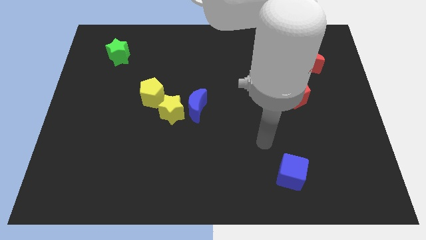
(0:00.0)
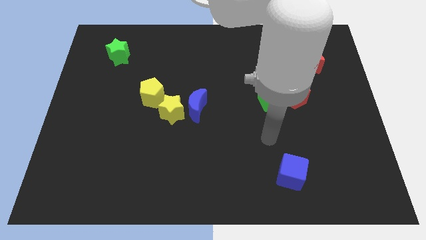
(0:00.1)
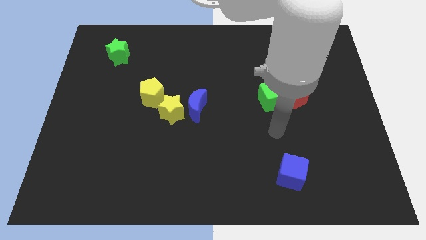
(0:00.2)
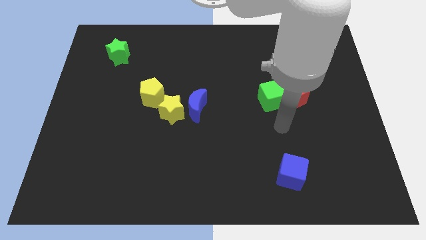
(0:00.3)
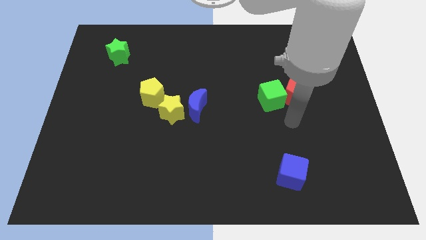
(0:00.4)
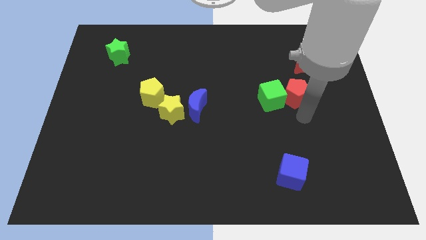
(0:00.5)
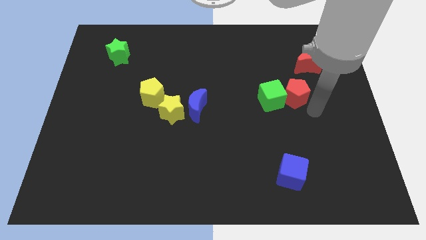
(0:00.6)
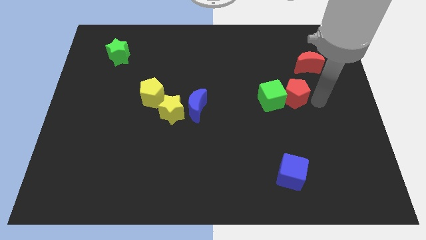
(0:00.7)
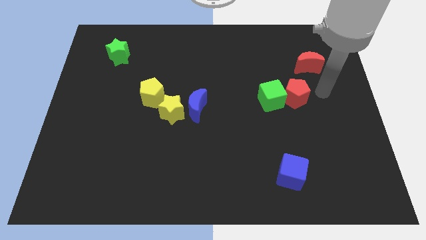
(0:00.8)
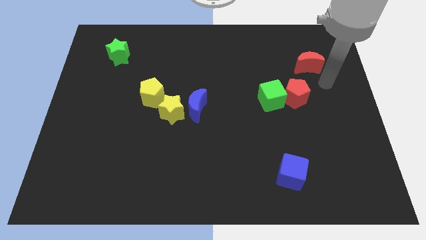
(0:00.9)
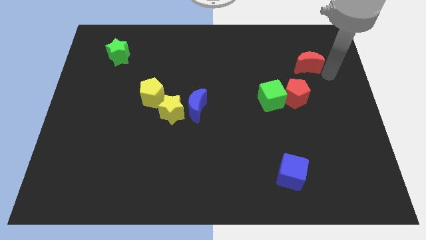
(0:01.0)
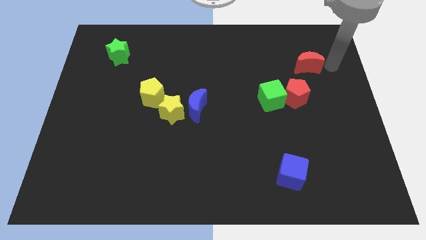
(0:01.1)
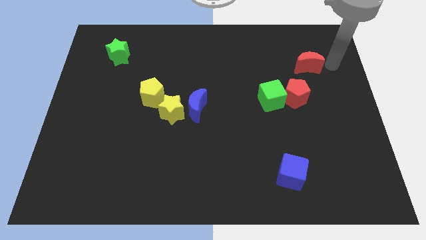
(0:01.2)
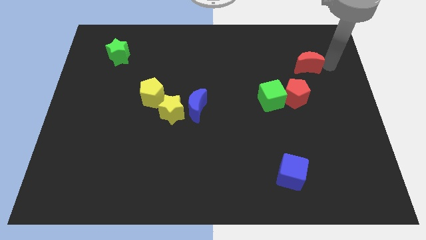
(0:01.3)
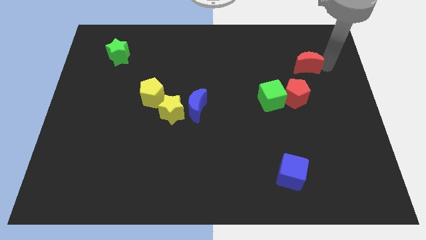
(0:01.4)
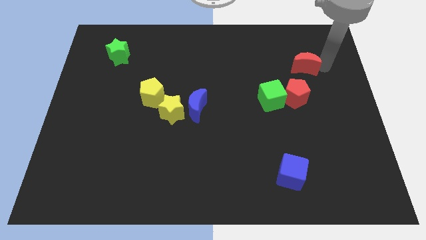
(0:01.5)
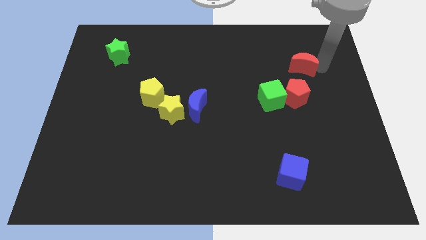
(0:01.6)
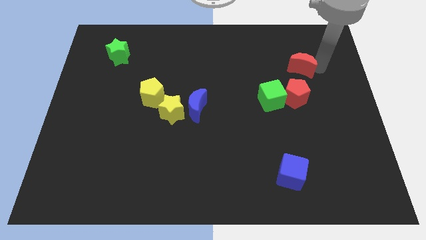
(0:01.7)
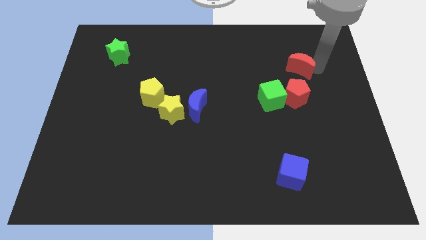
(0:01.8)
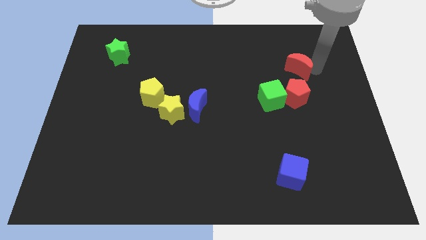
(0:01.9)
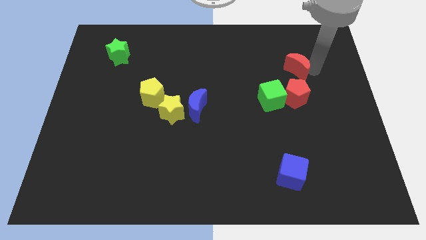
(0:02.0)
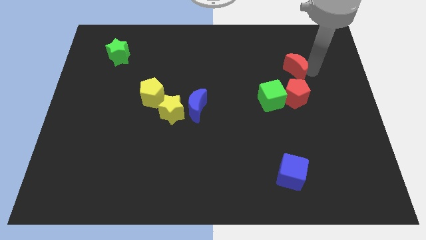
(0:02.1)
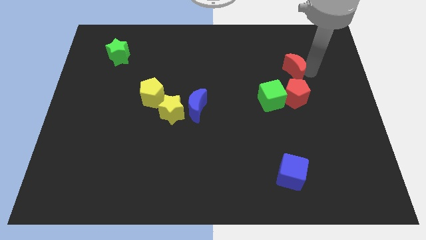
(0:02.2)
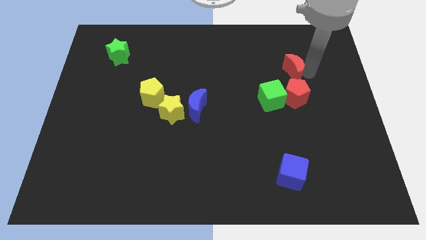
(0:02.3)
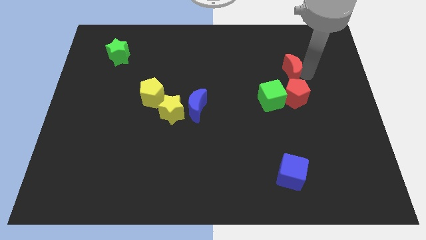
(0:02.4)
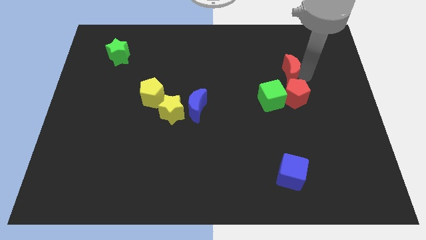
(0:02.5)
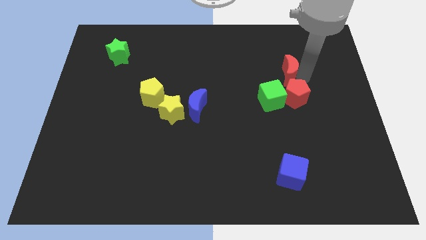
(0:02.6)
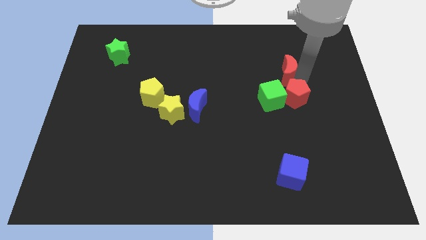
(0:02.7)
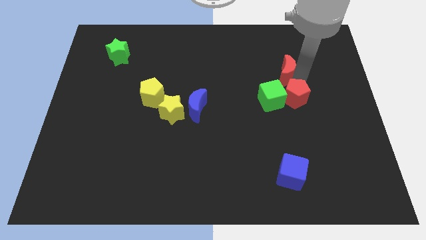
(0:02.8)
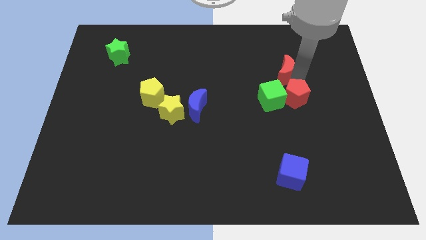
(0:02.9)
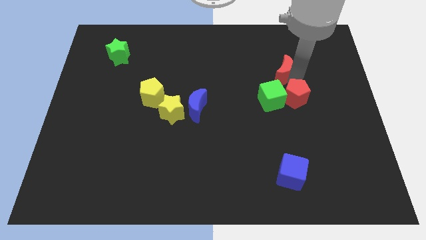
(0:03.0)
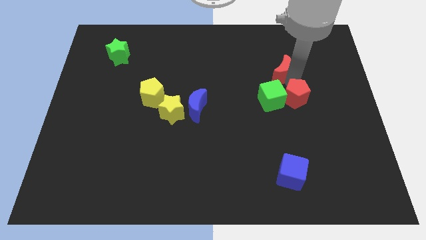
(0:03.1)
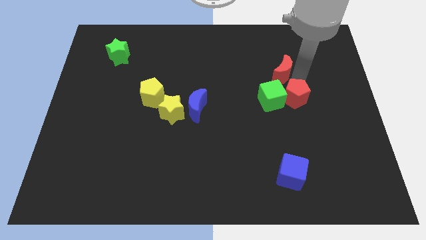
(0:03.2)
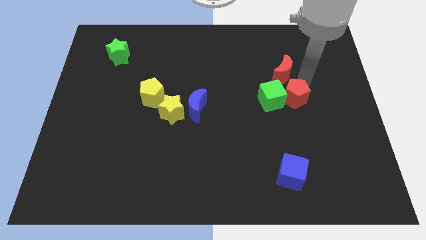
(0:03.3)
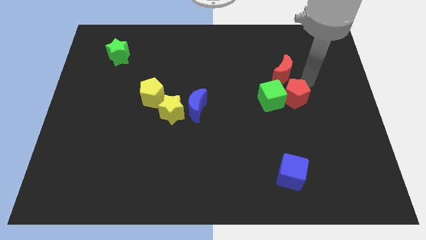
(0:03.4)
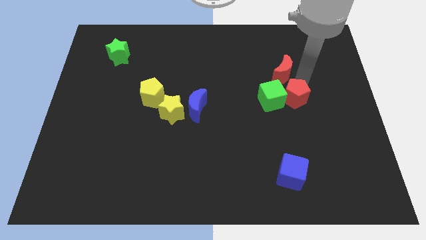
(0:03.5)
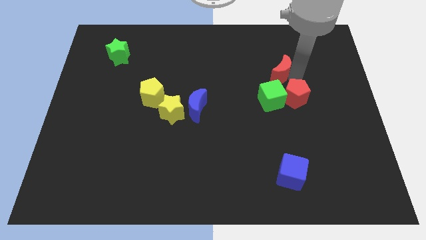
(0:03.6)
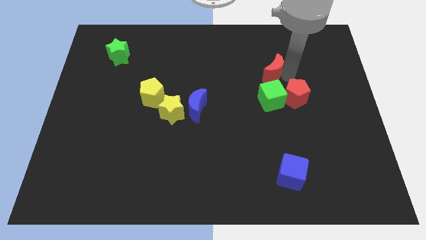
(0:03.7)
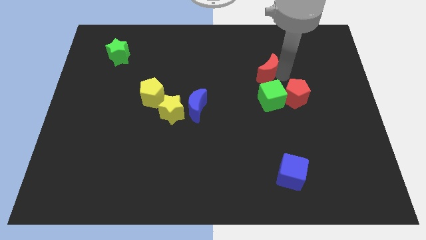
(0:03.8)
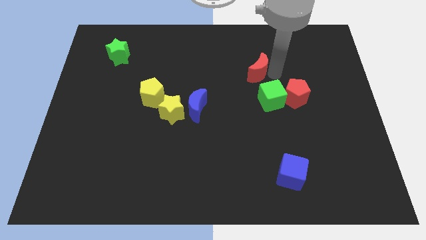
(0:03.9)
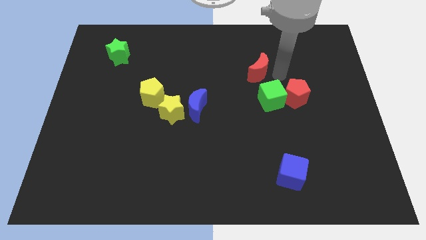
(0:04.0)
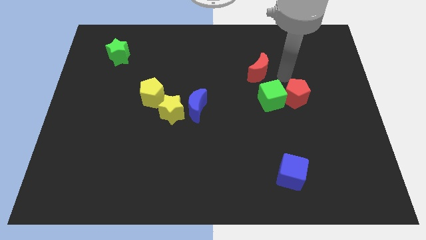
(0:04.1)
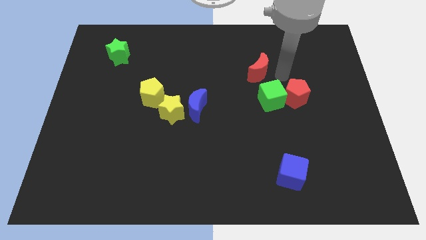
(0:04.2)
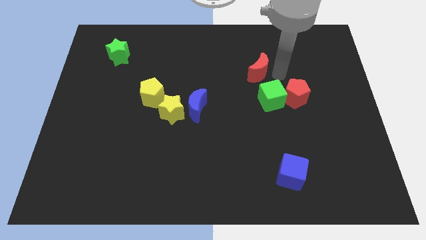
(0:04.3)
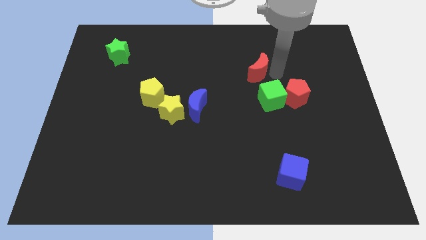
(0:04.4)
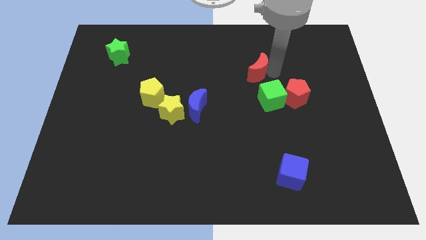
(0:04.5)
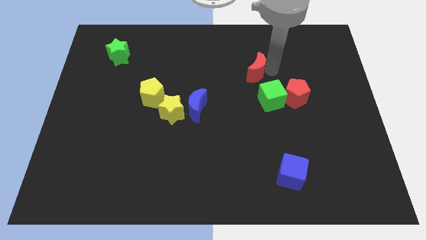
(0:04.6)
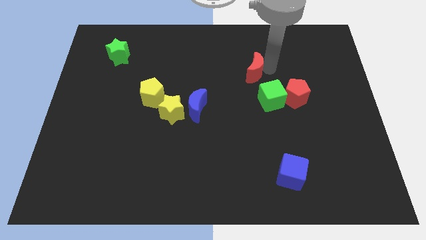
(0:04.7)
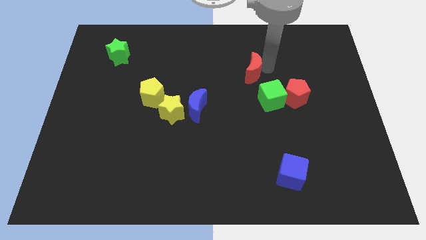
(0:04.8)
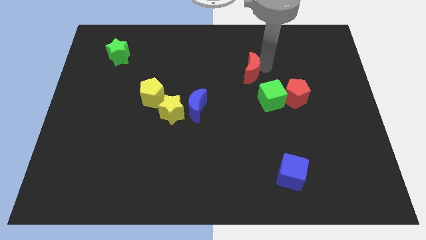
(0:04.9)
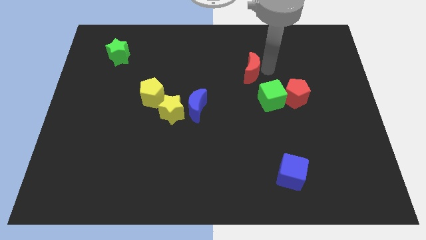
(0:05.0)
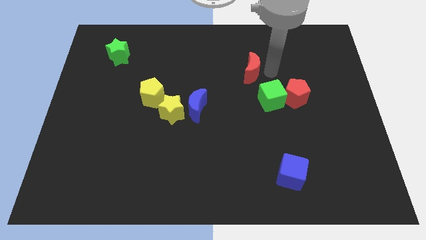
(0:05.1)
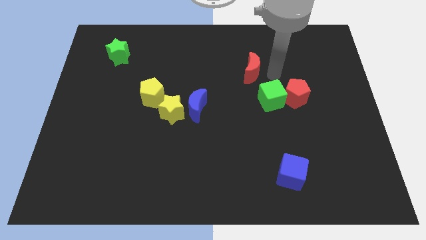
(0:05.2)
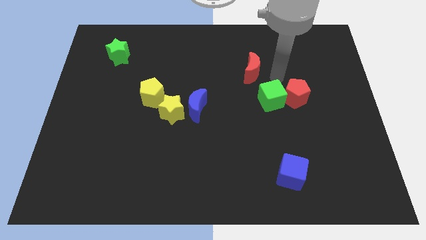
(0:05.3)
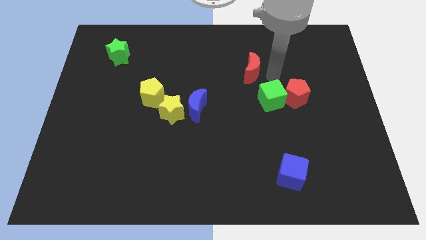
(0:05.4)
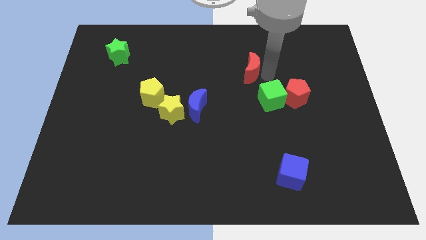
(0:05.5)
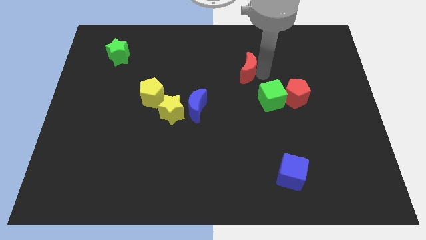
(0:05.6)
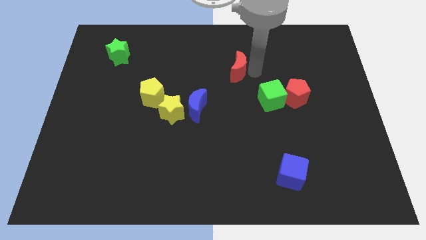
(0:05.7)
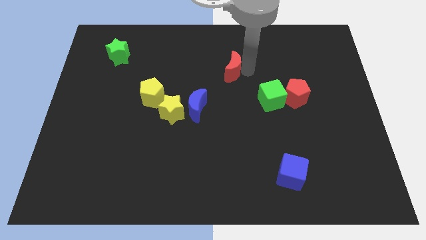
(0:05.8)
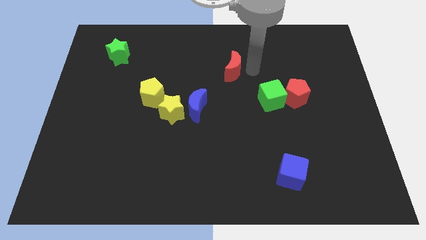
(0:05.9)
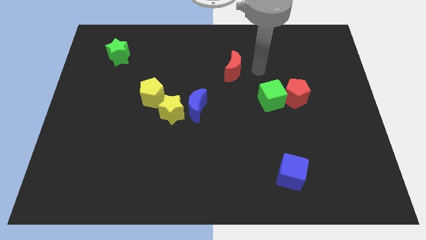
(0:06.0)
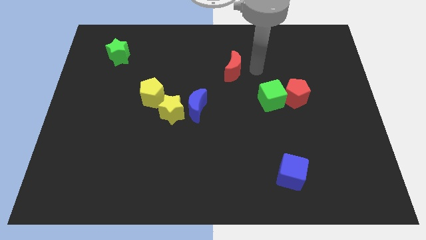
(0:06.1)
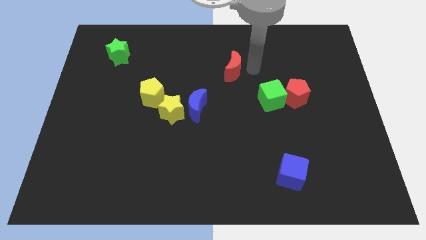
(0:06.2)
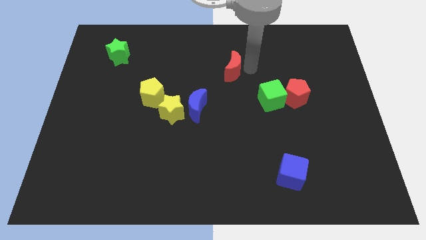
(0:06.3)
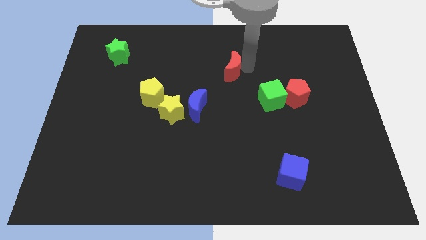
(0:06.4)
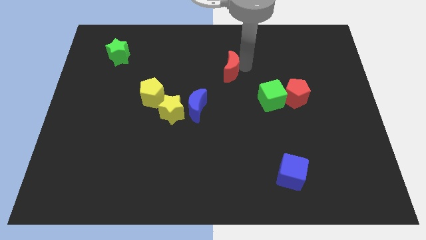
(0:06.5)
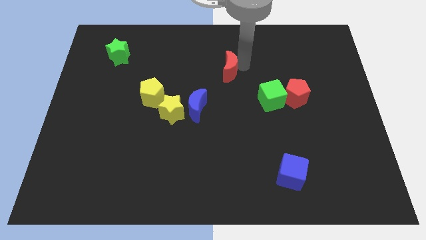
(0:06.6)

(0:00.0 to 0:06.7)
move the red moon to the left

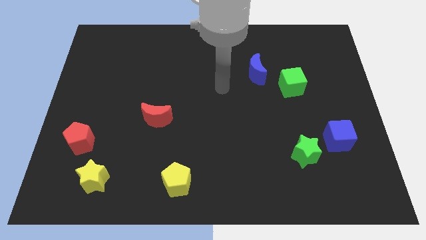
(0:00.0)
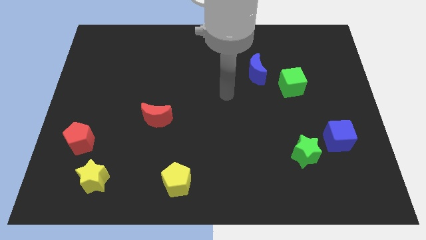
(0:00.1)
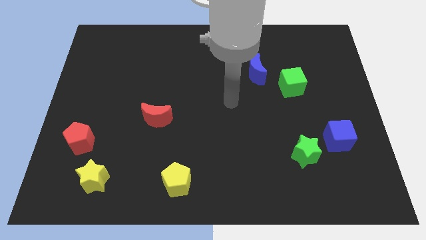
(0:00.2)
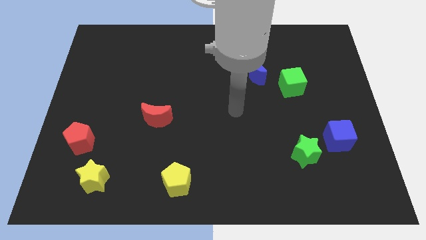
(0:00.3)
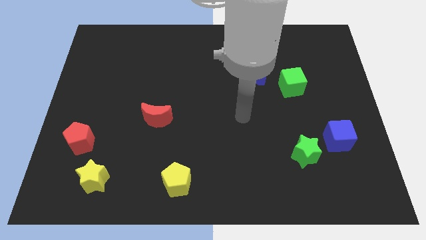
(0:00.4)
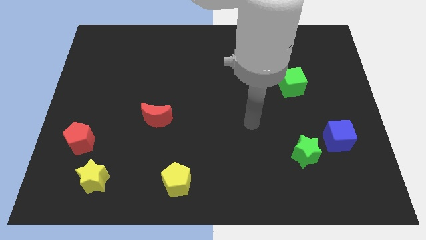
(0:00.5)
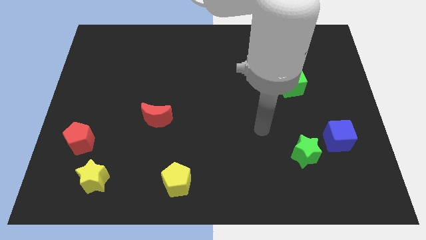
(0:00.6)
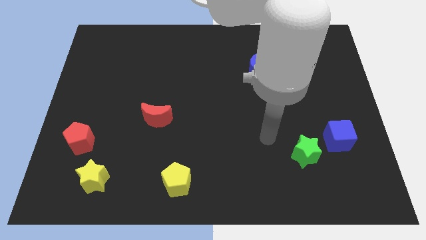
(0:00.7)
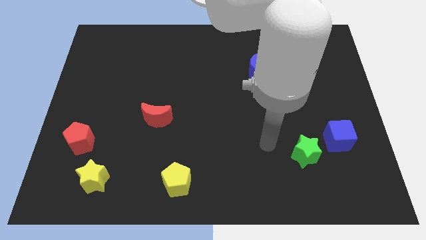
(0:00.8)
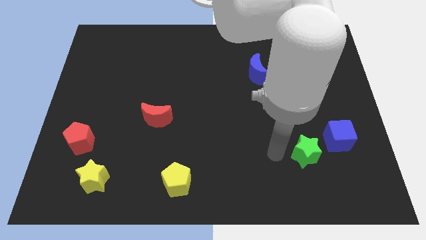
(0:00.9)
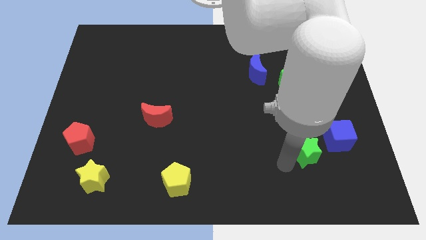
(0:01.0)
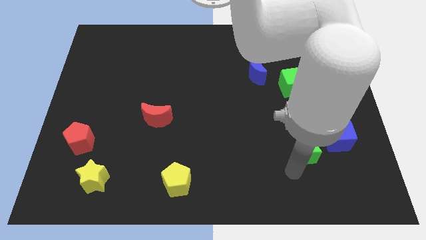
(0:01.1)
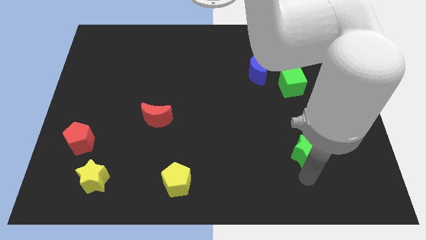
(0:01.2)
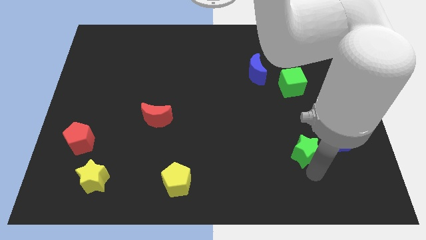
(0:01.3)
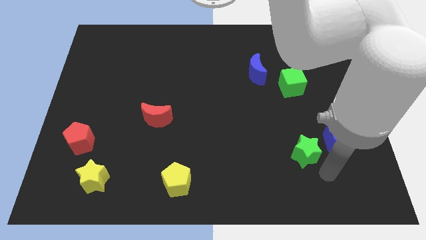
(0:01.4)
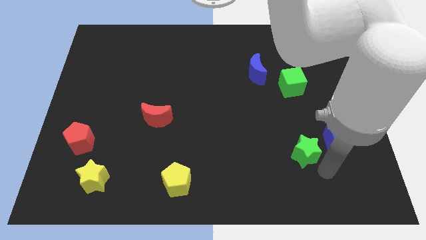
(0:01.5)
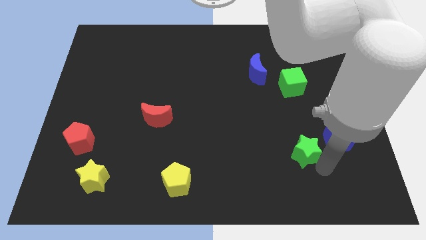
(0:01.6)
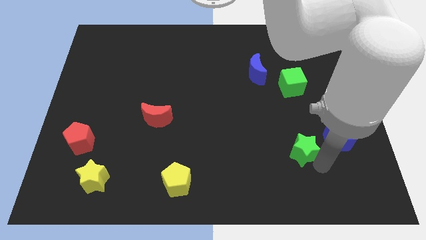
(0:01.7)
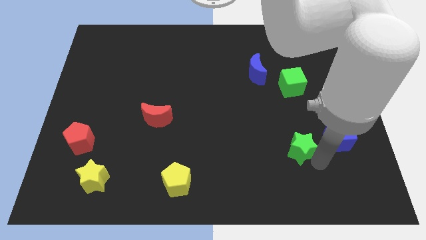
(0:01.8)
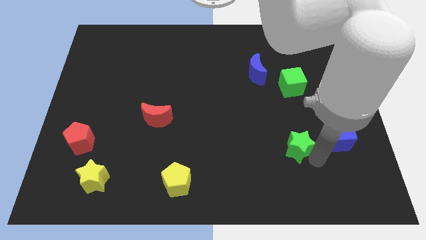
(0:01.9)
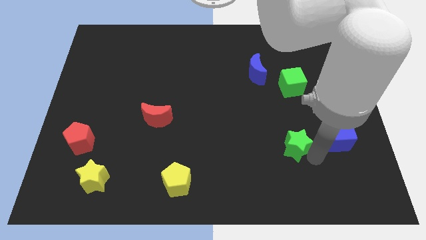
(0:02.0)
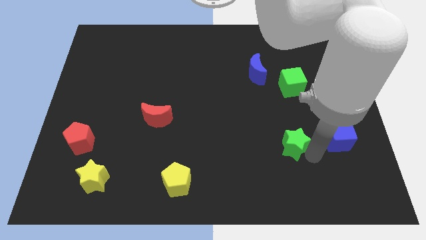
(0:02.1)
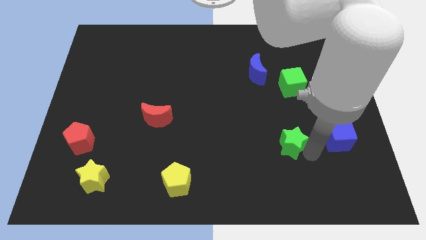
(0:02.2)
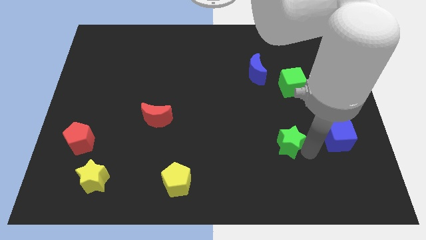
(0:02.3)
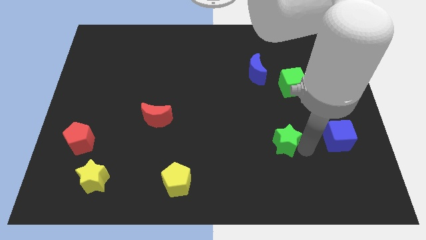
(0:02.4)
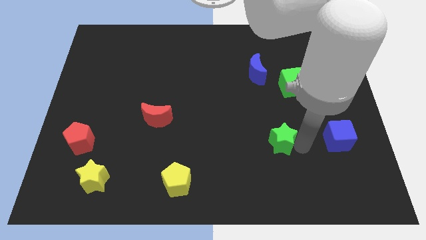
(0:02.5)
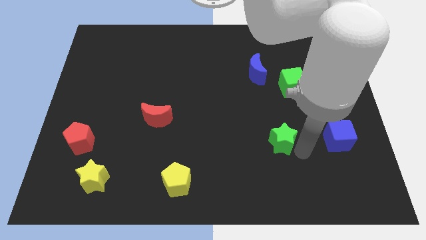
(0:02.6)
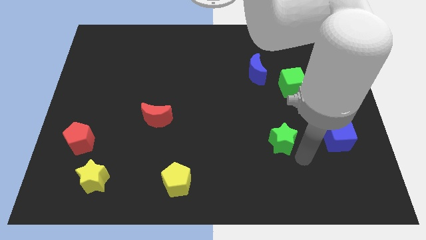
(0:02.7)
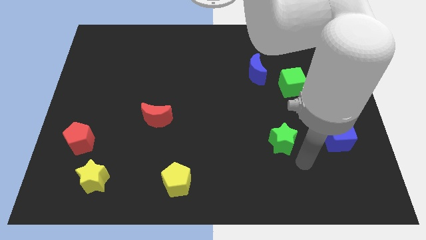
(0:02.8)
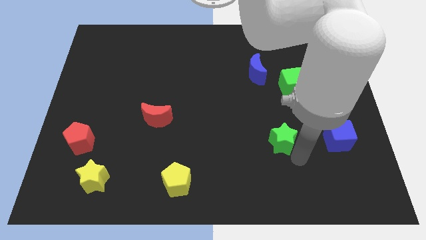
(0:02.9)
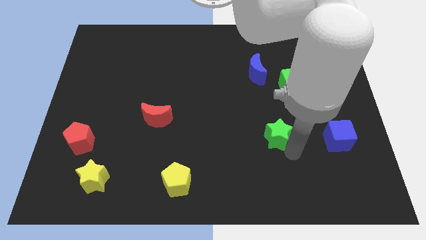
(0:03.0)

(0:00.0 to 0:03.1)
slide the green star diagonally up and to the left somewhat
